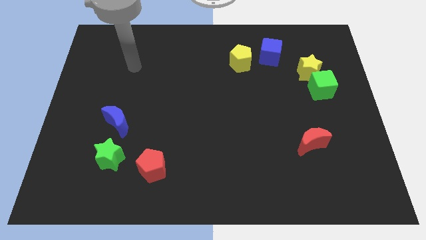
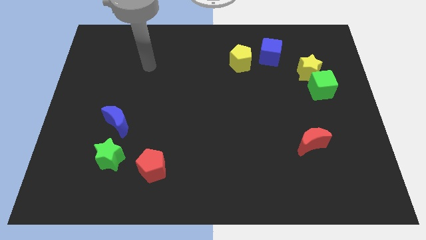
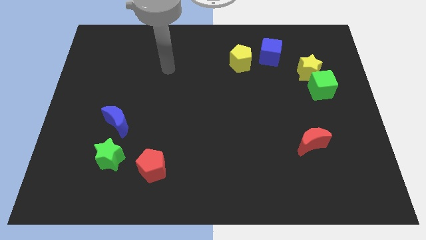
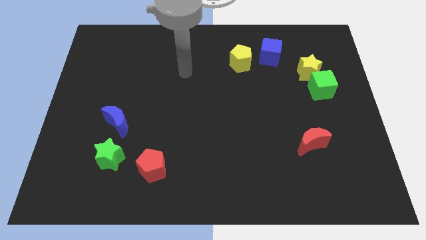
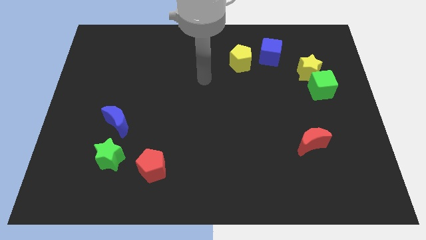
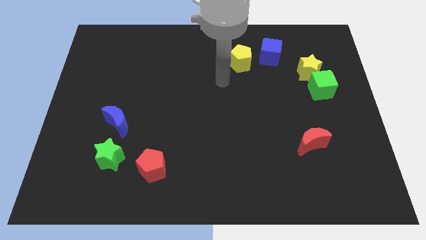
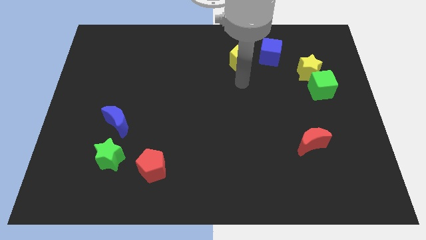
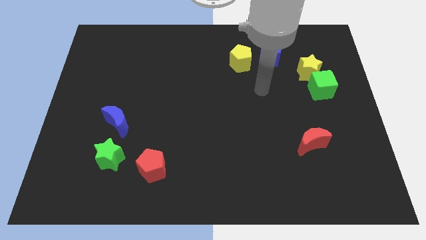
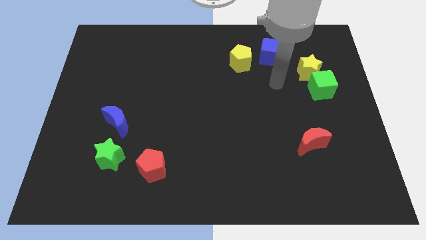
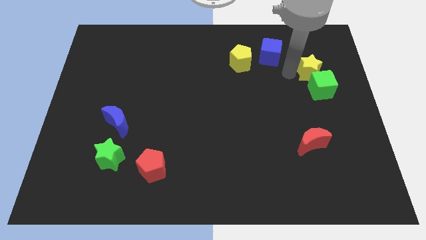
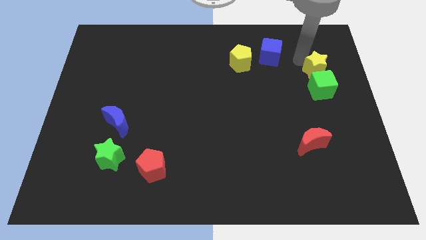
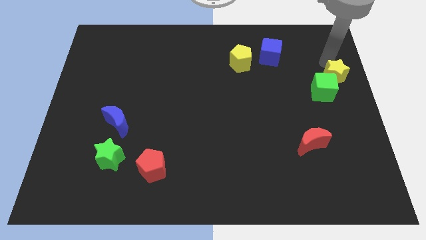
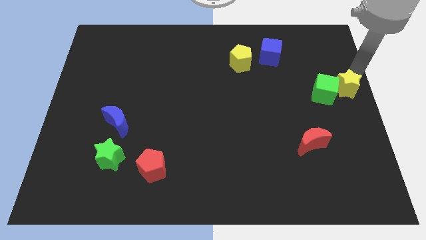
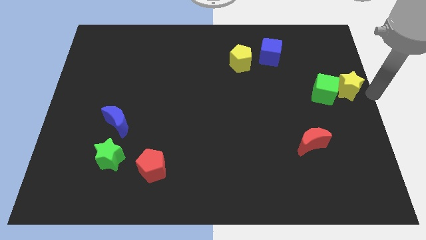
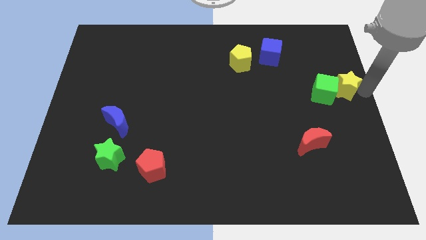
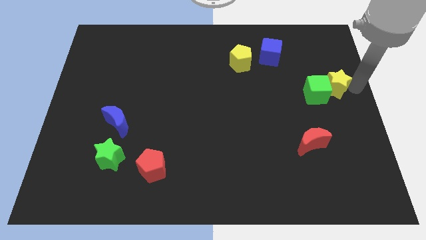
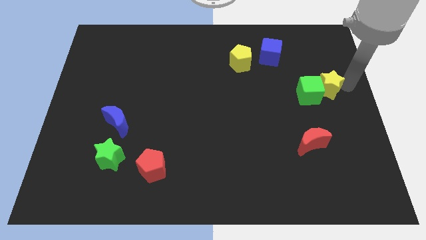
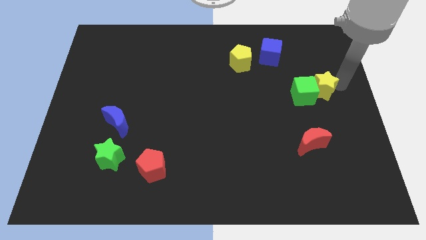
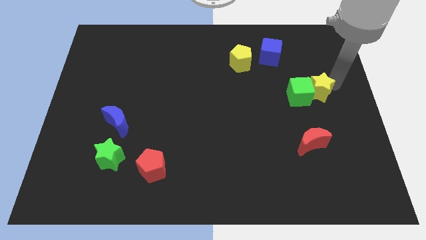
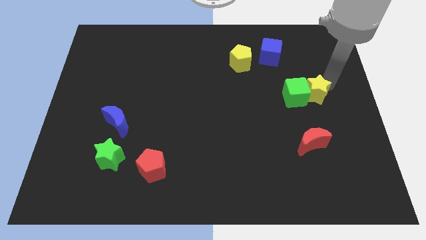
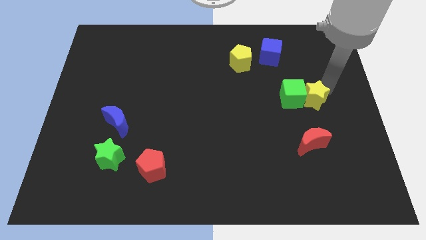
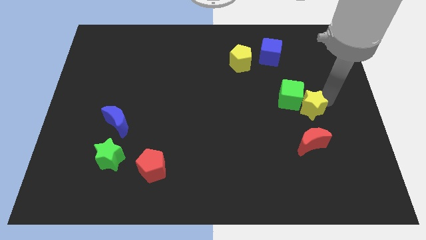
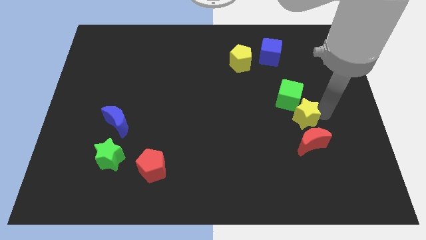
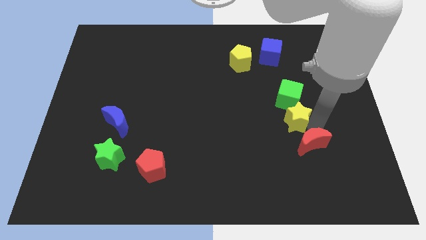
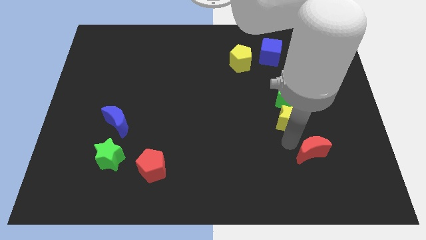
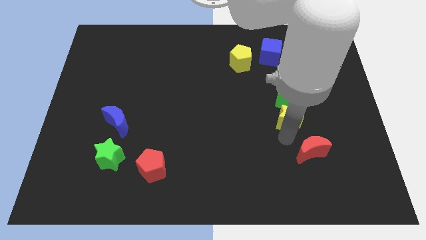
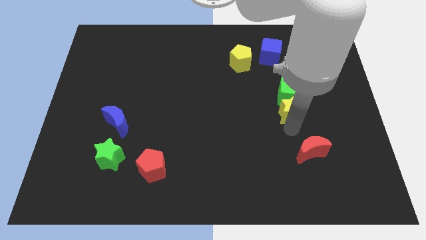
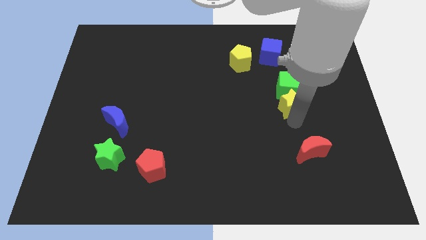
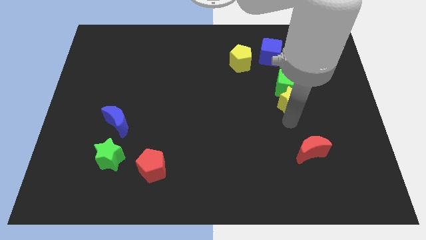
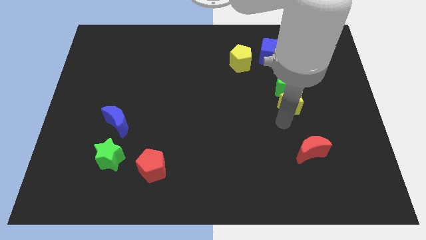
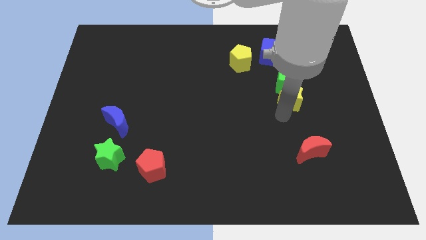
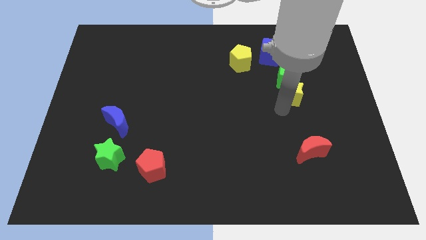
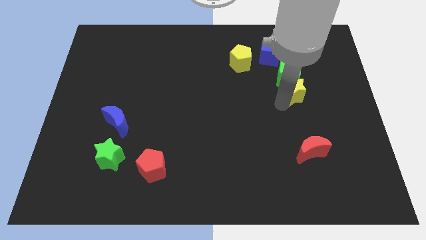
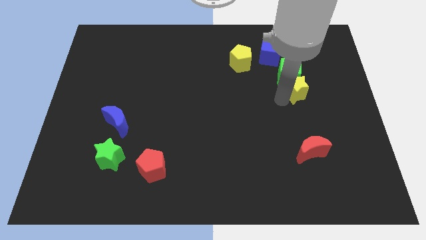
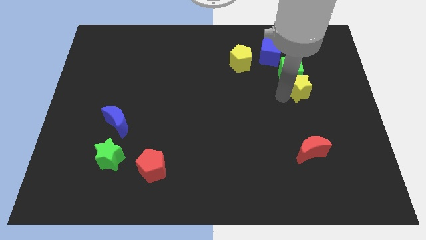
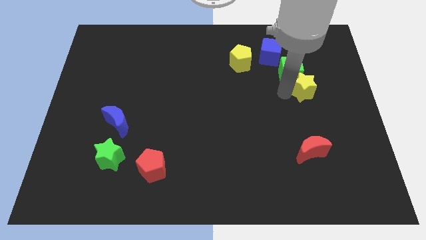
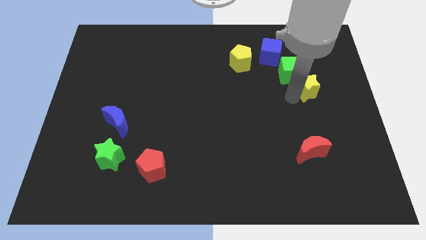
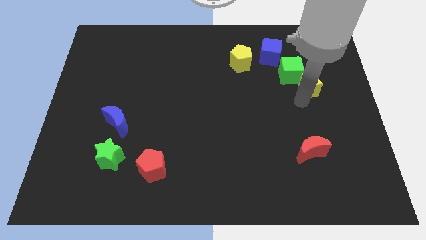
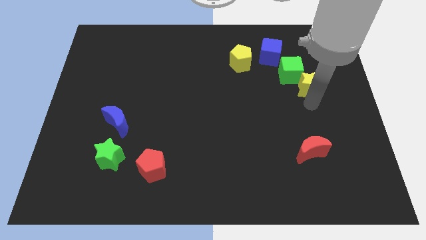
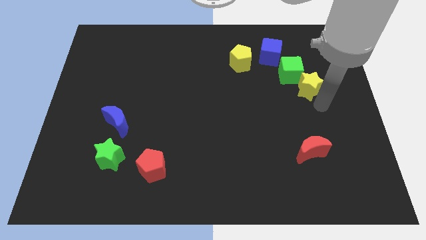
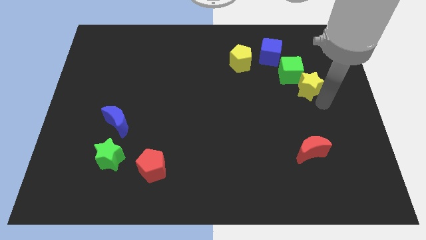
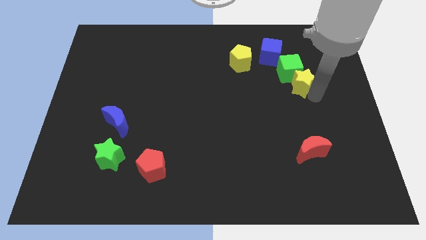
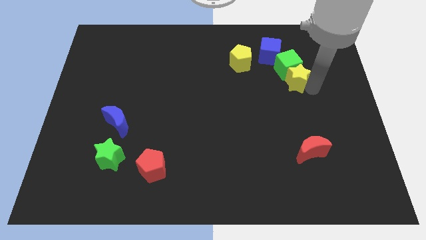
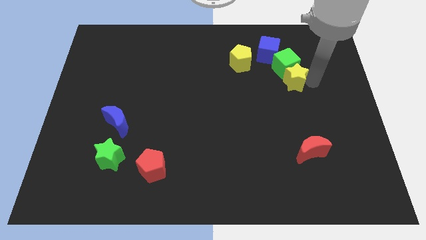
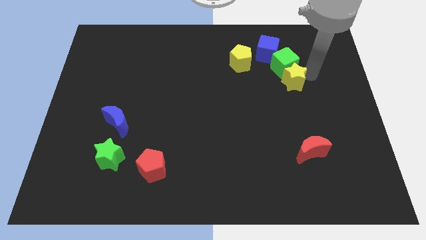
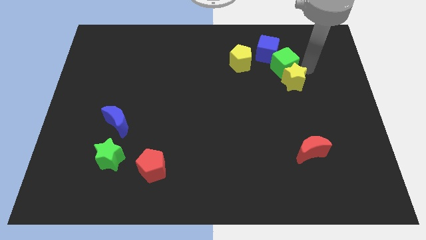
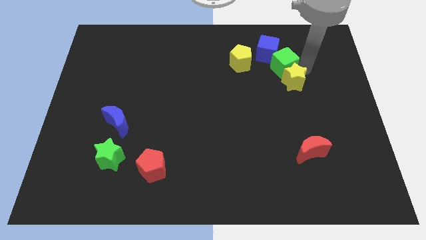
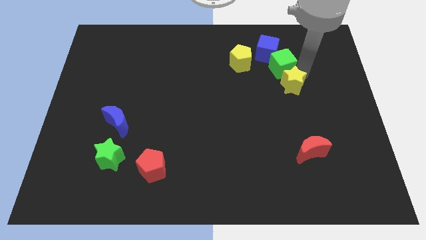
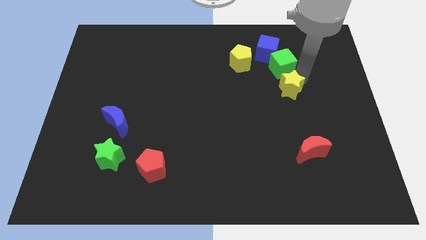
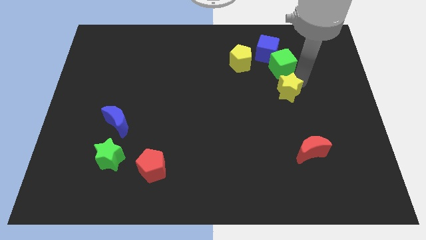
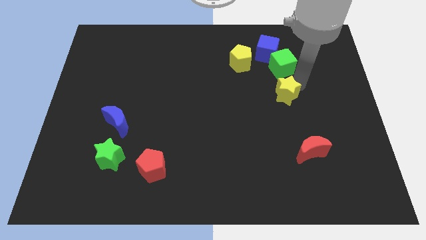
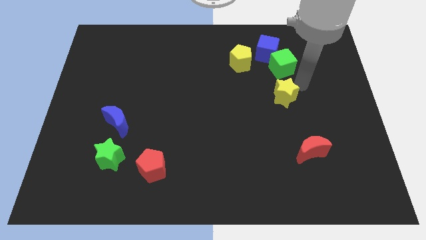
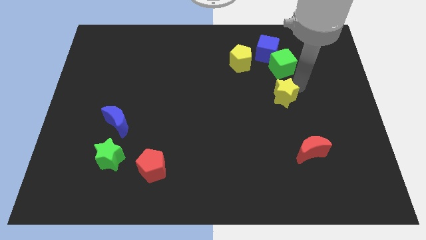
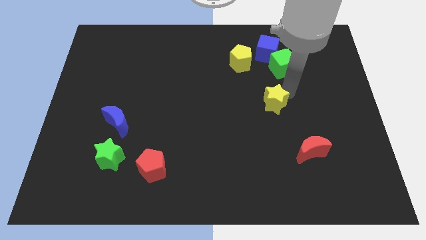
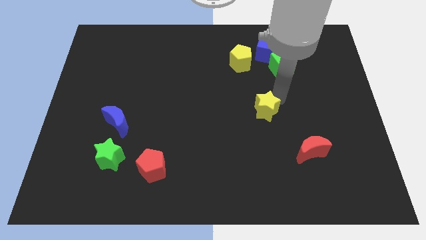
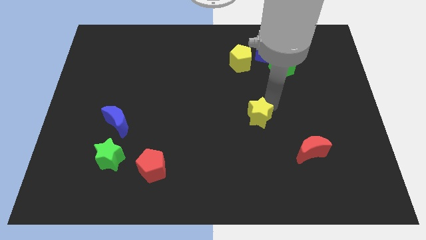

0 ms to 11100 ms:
move the yellow star down and to the left diagonally
